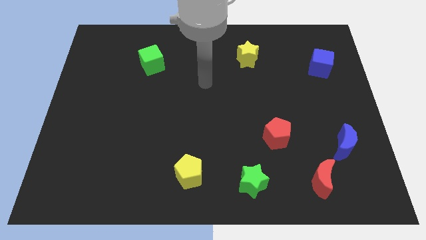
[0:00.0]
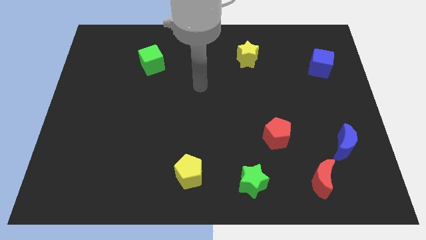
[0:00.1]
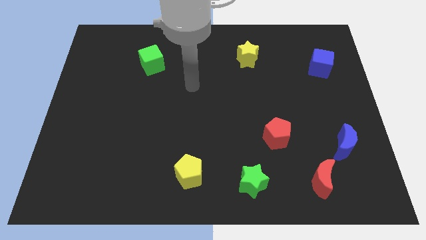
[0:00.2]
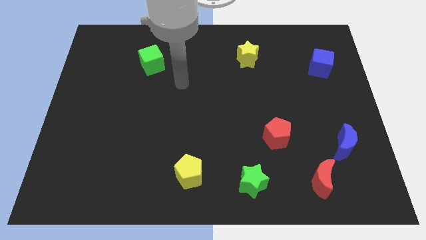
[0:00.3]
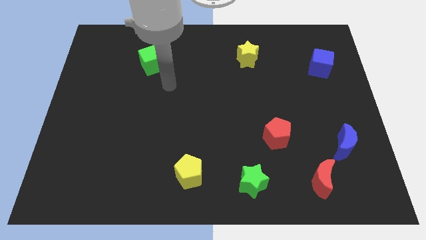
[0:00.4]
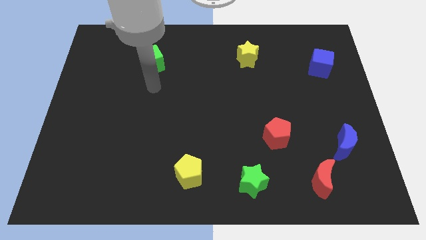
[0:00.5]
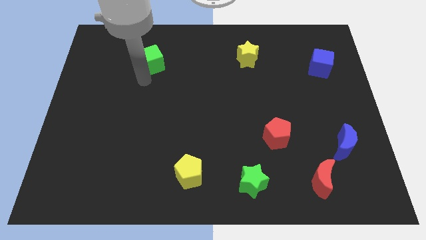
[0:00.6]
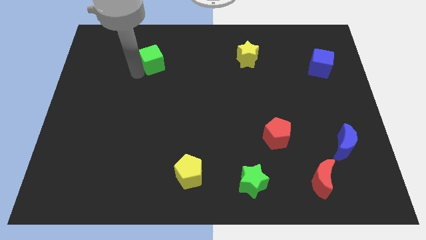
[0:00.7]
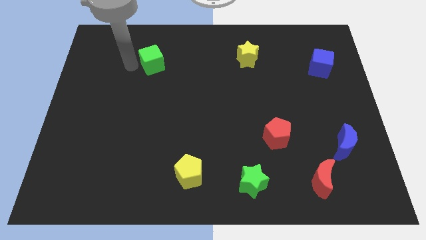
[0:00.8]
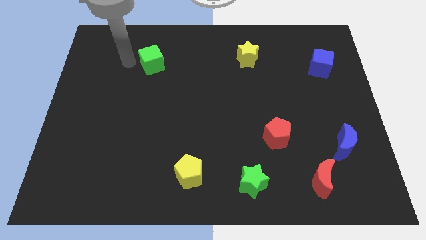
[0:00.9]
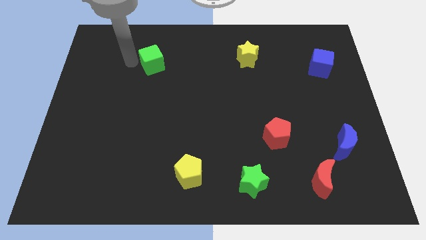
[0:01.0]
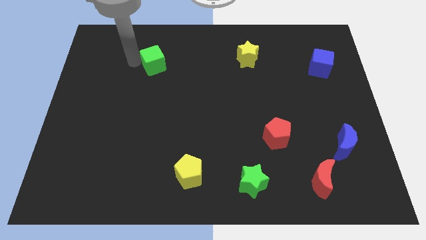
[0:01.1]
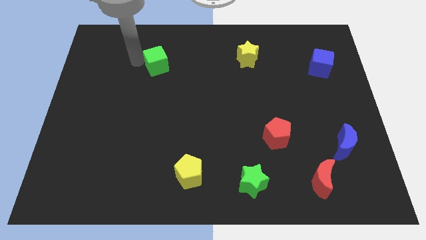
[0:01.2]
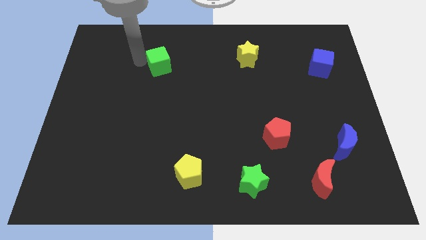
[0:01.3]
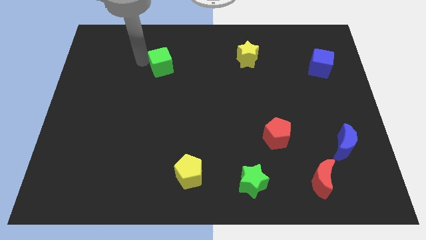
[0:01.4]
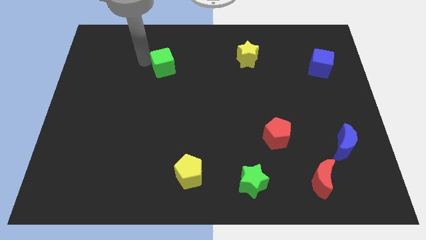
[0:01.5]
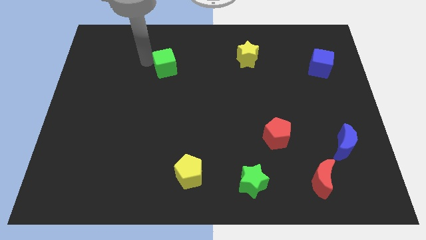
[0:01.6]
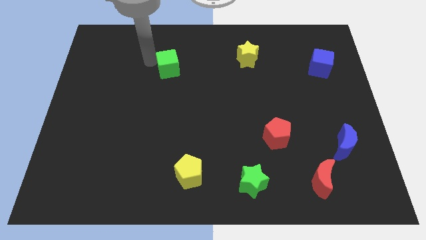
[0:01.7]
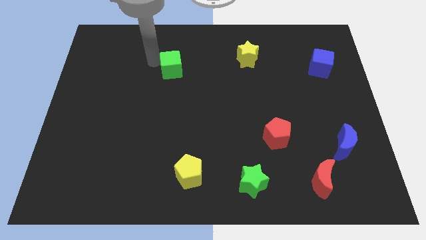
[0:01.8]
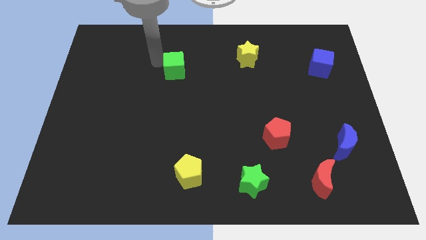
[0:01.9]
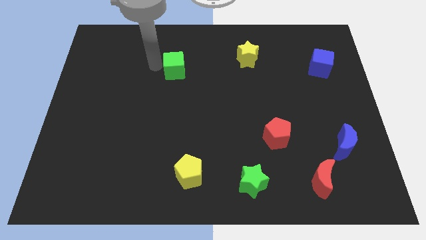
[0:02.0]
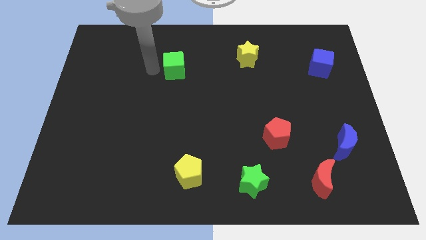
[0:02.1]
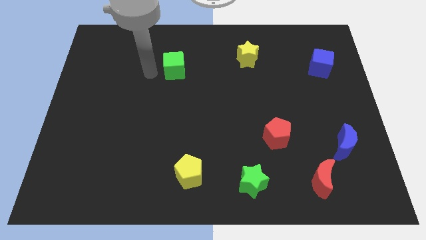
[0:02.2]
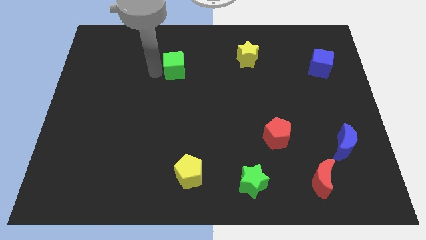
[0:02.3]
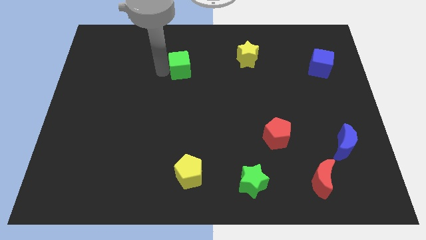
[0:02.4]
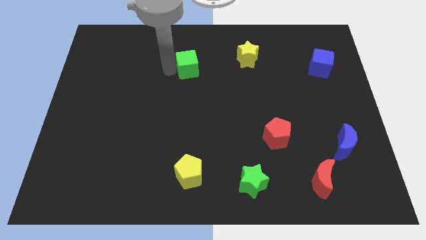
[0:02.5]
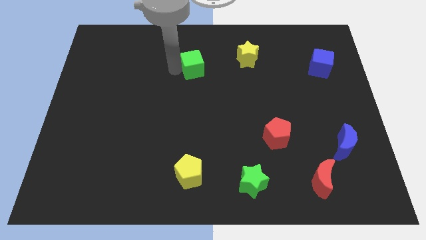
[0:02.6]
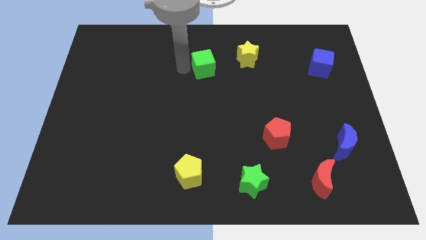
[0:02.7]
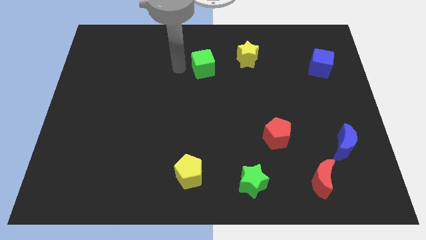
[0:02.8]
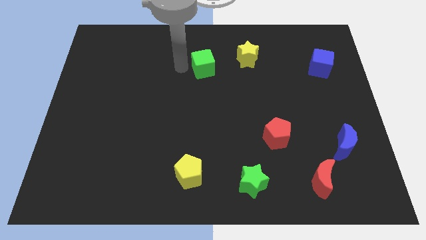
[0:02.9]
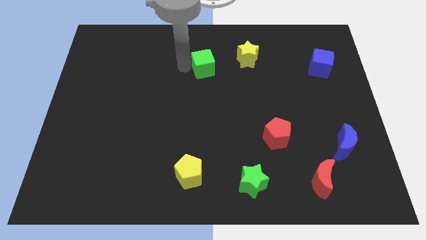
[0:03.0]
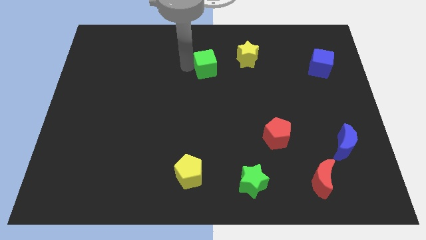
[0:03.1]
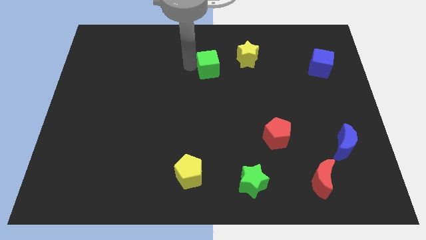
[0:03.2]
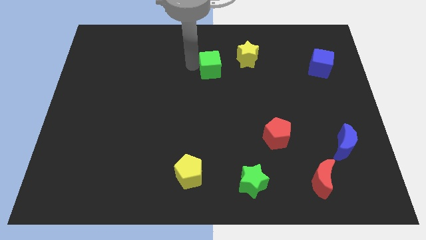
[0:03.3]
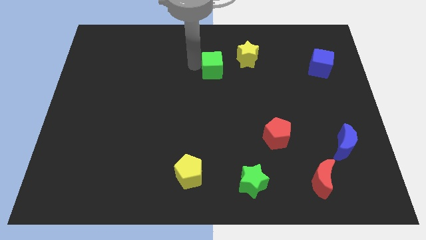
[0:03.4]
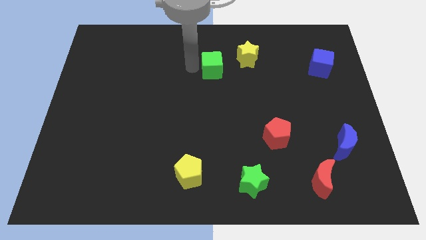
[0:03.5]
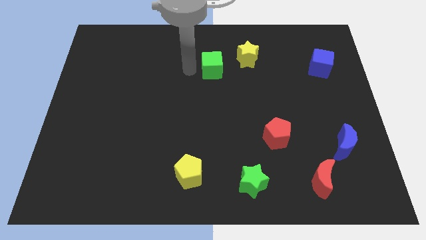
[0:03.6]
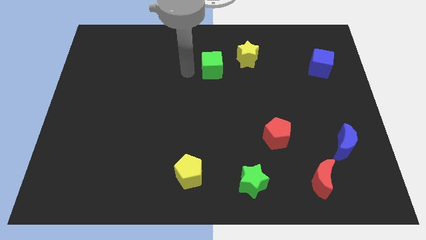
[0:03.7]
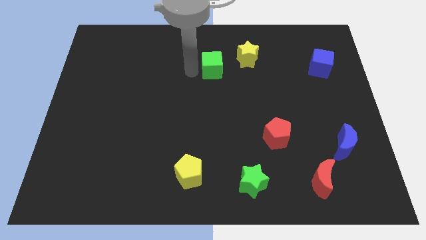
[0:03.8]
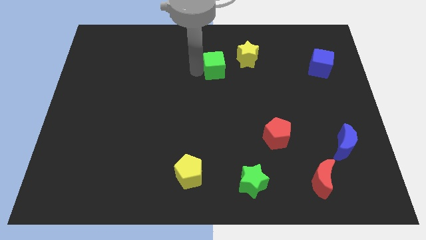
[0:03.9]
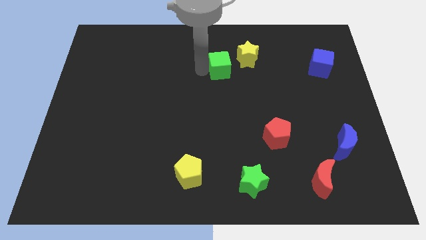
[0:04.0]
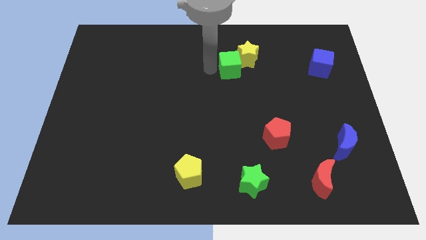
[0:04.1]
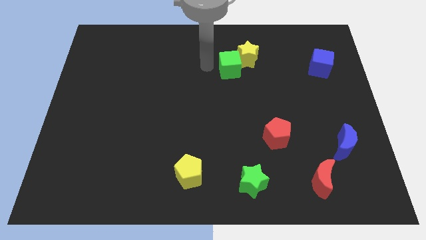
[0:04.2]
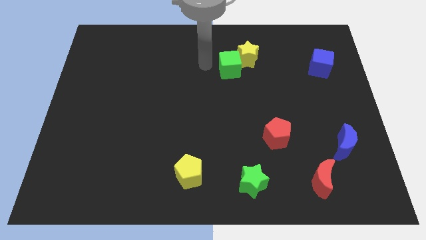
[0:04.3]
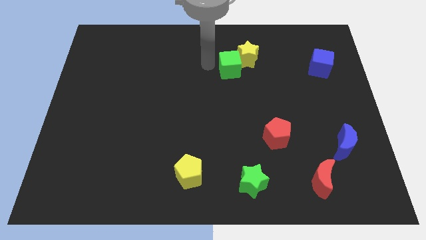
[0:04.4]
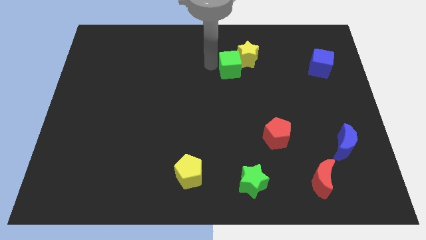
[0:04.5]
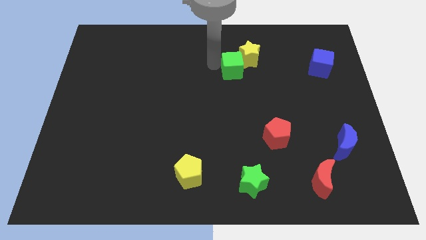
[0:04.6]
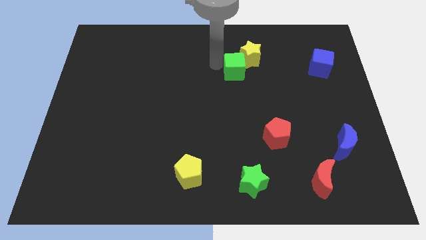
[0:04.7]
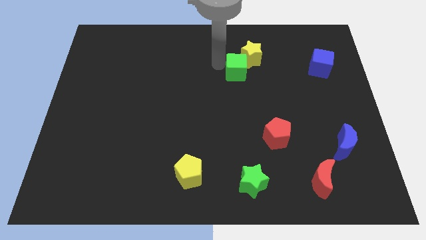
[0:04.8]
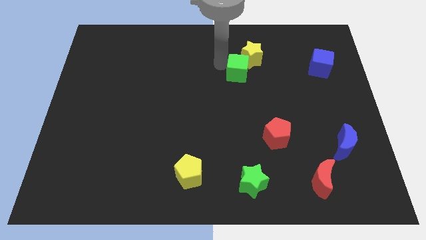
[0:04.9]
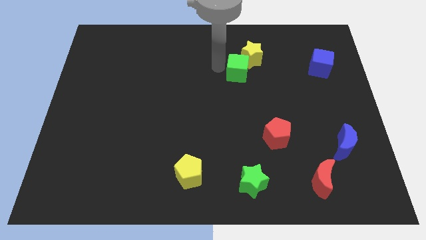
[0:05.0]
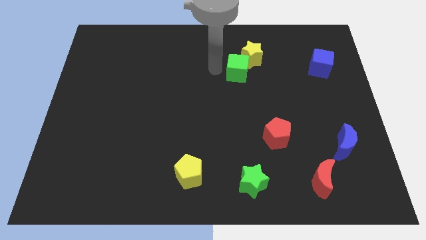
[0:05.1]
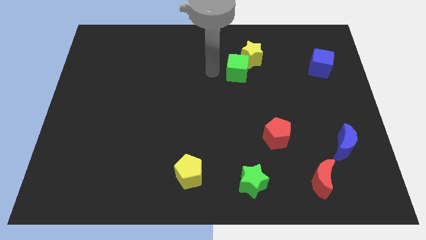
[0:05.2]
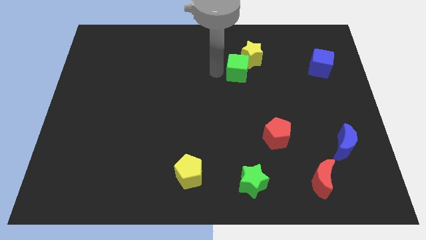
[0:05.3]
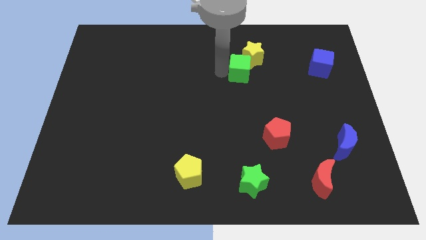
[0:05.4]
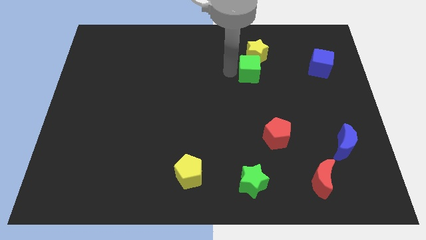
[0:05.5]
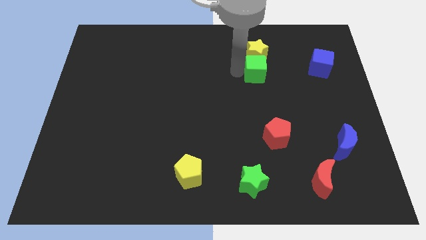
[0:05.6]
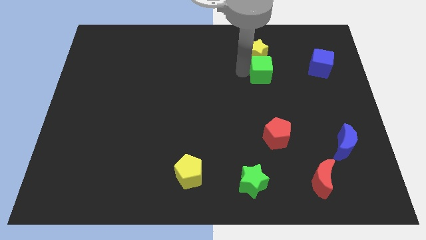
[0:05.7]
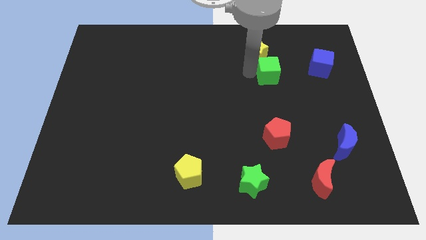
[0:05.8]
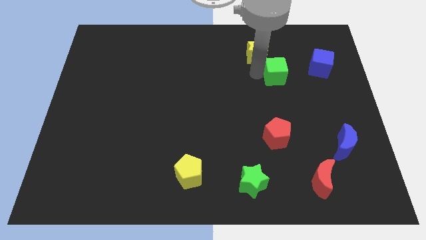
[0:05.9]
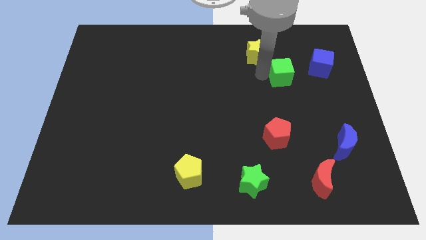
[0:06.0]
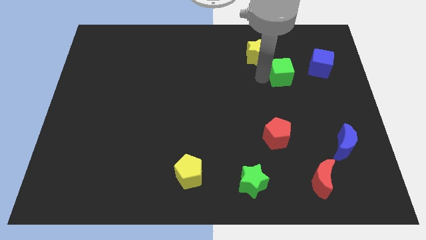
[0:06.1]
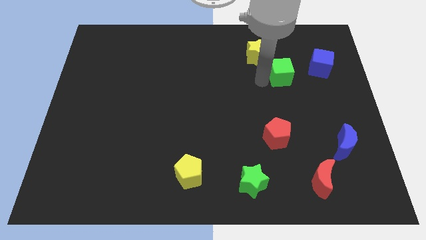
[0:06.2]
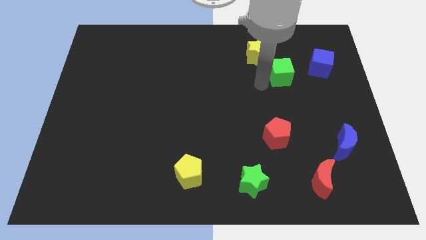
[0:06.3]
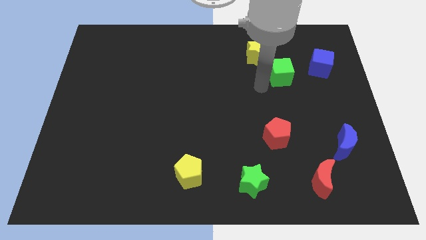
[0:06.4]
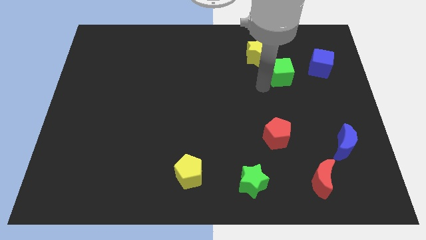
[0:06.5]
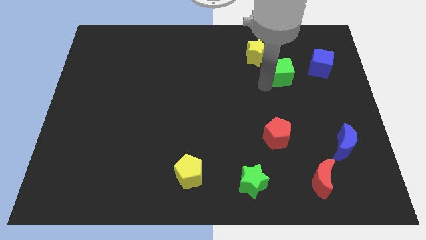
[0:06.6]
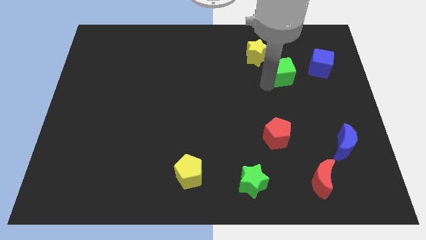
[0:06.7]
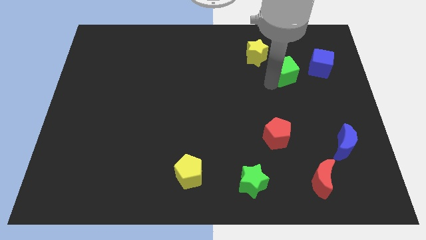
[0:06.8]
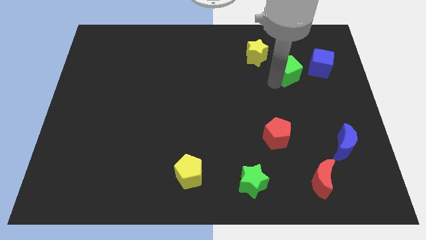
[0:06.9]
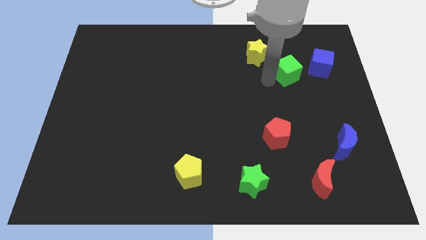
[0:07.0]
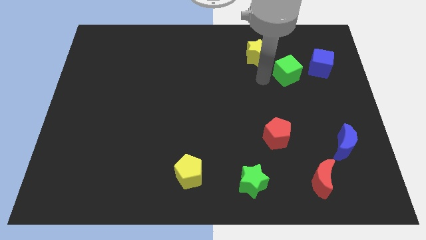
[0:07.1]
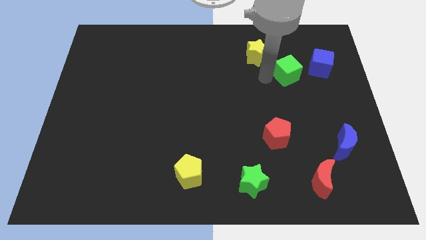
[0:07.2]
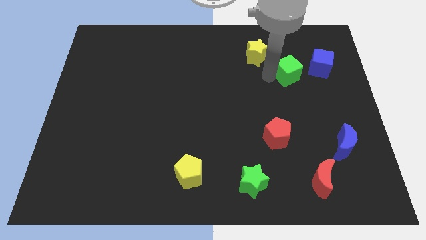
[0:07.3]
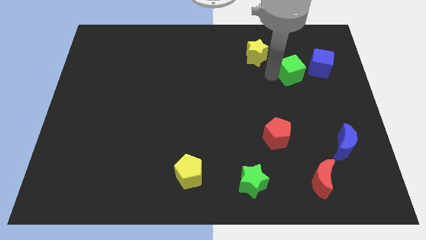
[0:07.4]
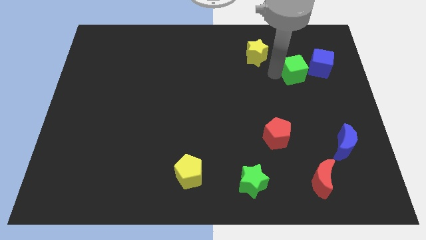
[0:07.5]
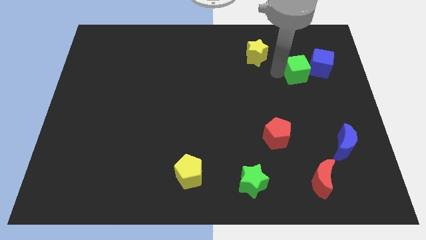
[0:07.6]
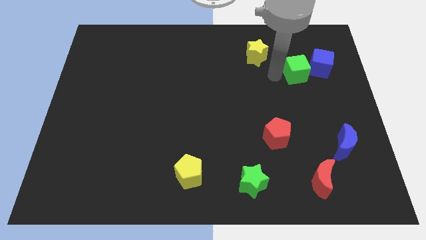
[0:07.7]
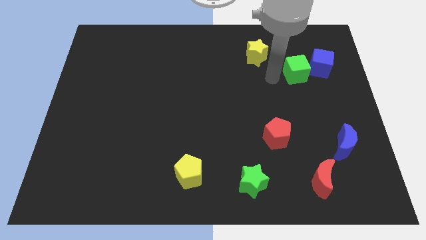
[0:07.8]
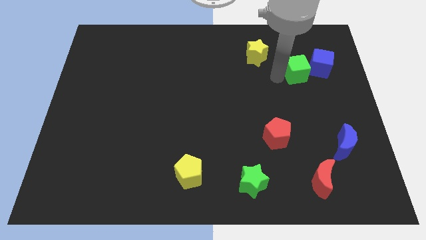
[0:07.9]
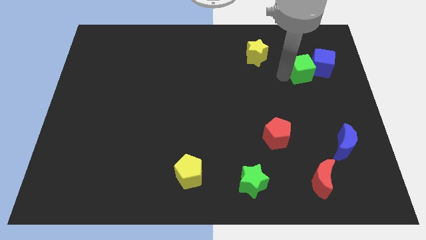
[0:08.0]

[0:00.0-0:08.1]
move the green cube to the blue cube

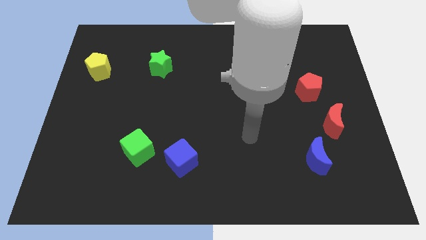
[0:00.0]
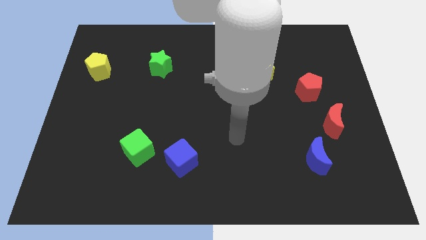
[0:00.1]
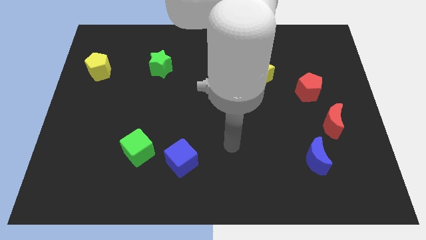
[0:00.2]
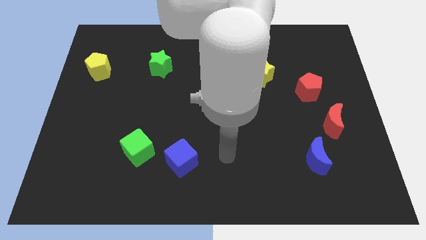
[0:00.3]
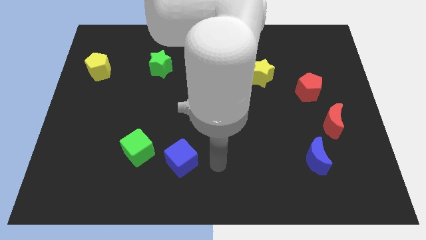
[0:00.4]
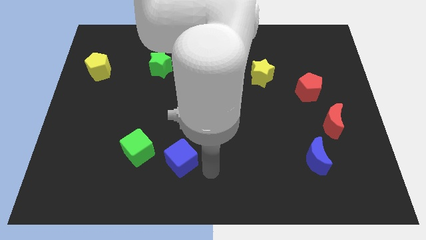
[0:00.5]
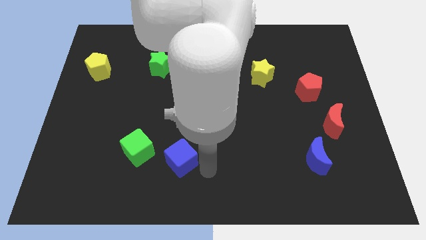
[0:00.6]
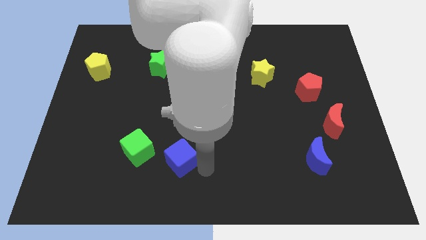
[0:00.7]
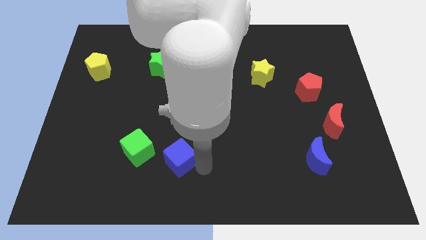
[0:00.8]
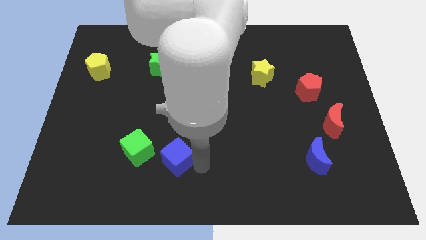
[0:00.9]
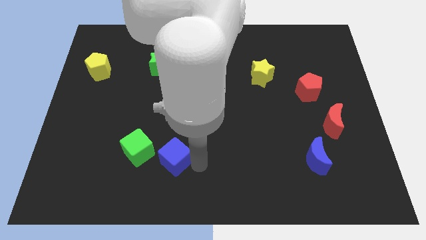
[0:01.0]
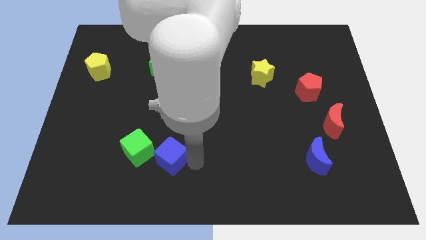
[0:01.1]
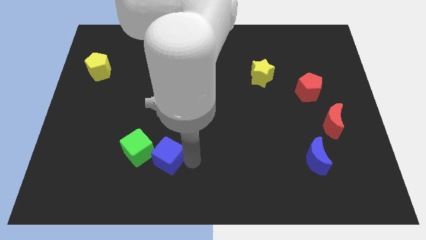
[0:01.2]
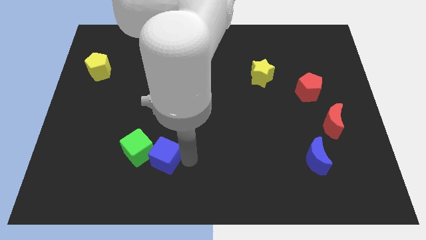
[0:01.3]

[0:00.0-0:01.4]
move the blue cube to the green cube
